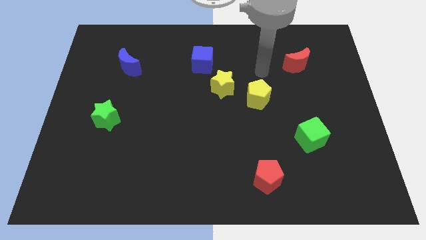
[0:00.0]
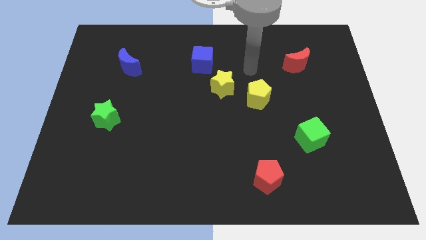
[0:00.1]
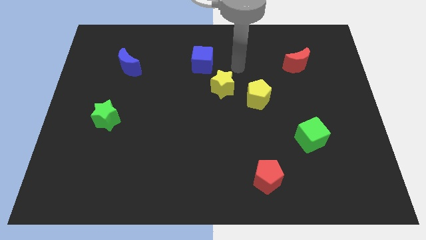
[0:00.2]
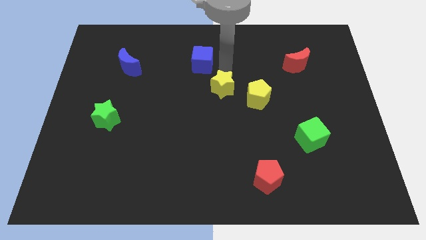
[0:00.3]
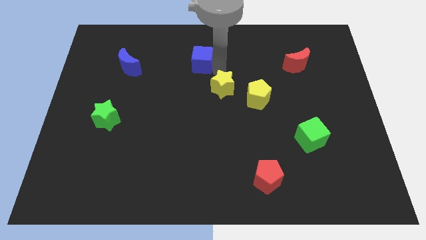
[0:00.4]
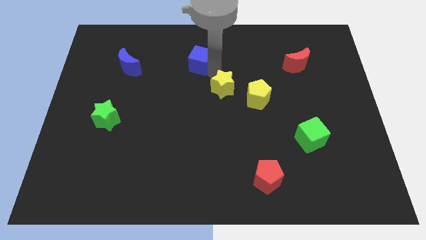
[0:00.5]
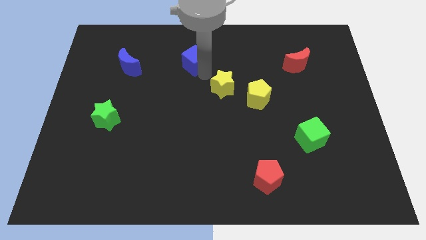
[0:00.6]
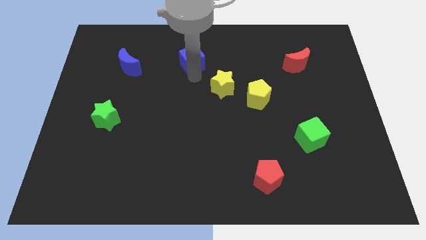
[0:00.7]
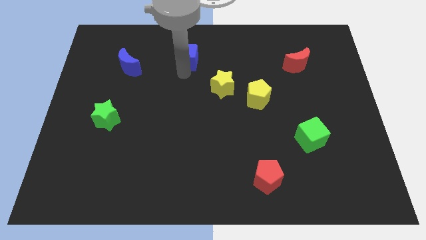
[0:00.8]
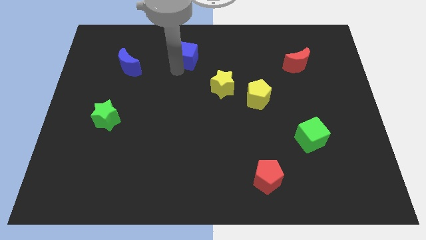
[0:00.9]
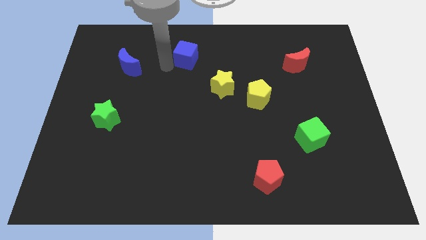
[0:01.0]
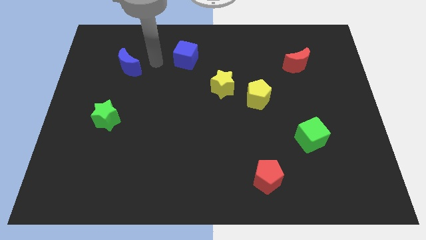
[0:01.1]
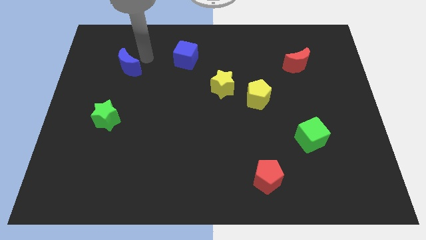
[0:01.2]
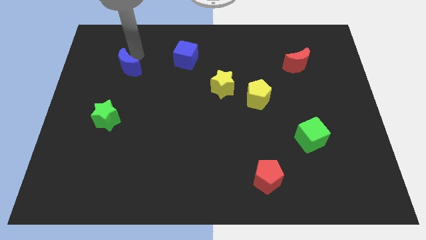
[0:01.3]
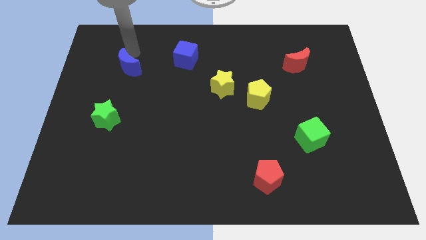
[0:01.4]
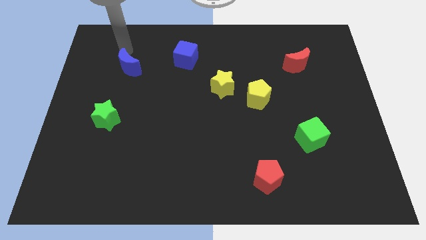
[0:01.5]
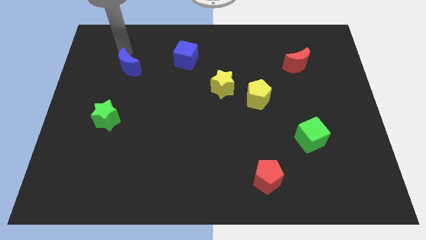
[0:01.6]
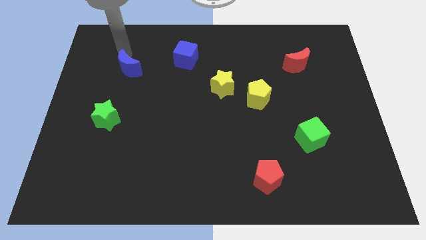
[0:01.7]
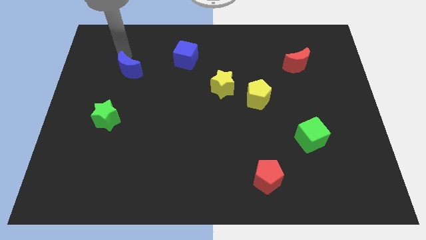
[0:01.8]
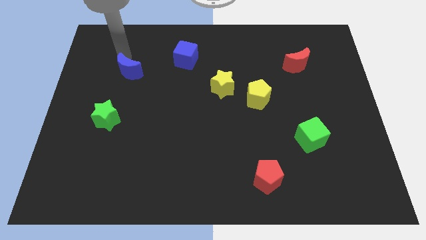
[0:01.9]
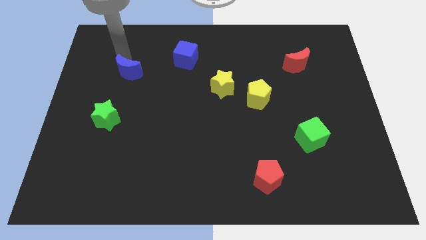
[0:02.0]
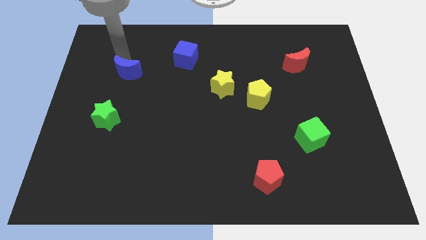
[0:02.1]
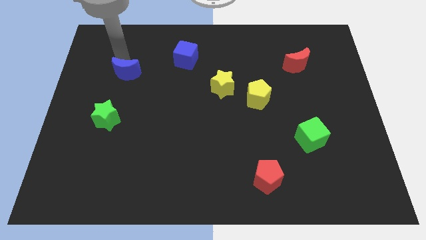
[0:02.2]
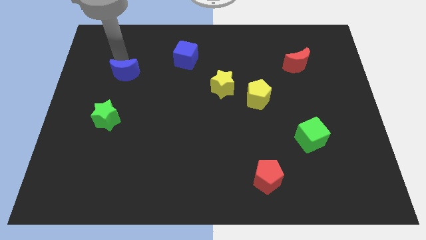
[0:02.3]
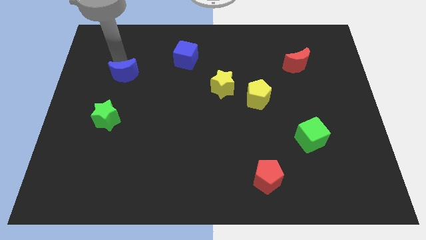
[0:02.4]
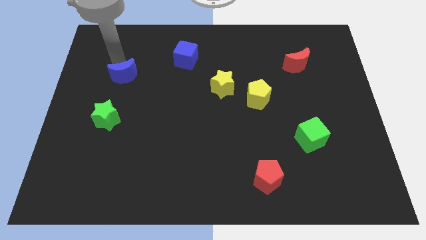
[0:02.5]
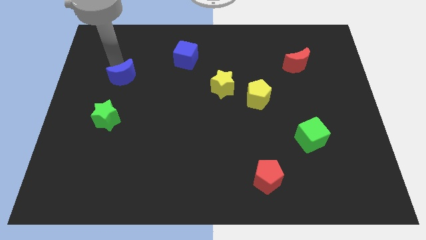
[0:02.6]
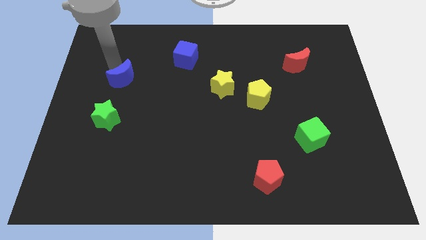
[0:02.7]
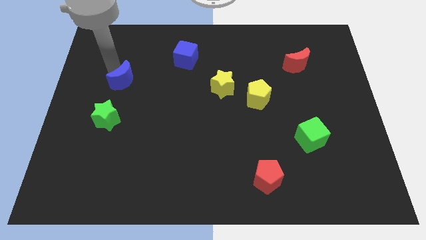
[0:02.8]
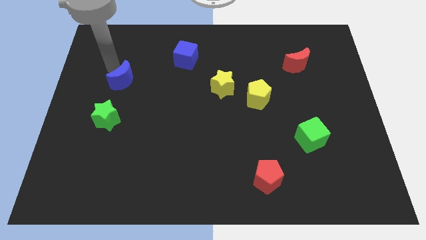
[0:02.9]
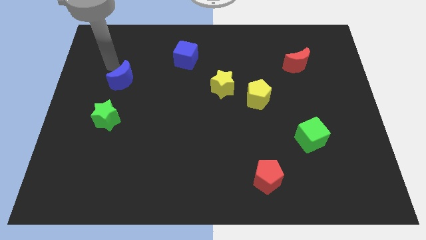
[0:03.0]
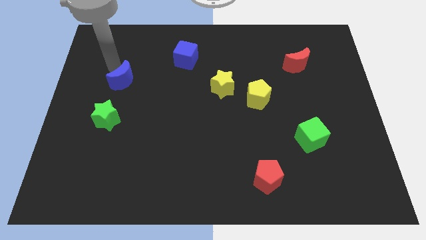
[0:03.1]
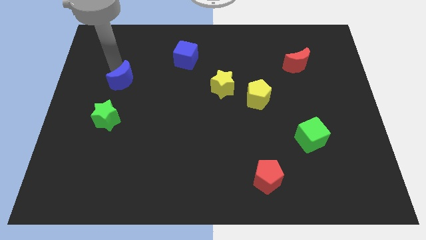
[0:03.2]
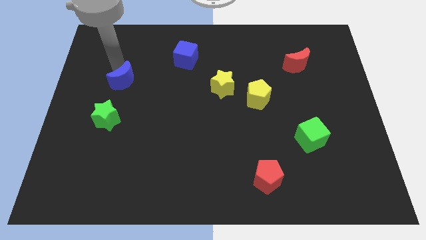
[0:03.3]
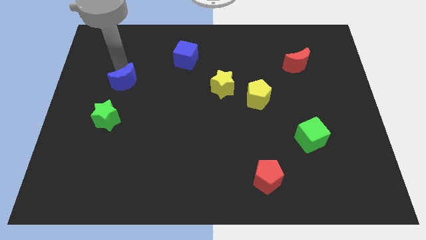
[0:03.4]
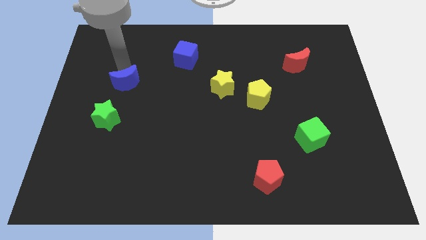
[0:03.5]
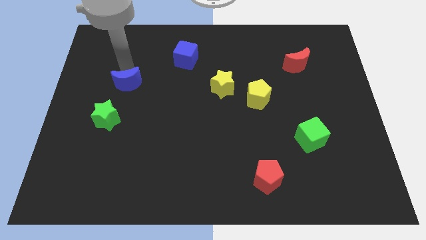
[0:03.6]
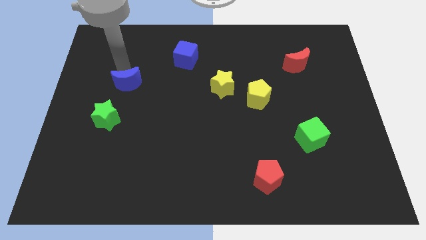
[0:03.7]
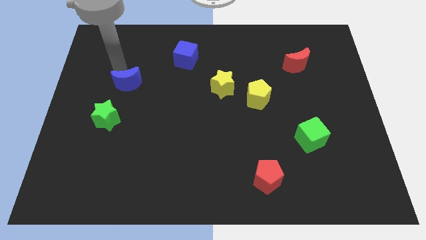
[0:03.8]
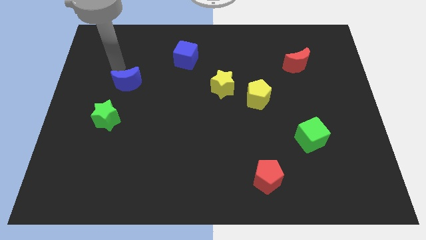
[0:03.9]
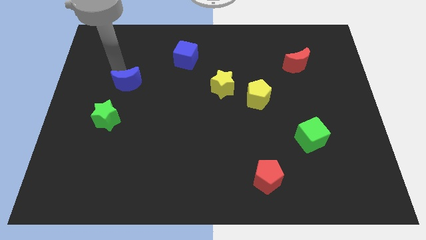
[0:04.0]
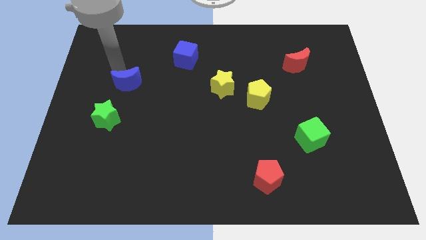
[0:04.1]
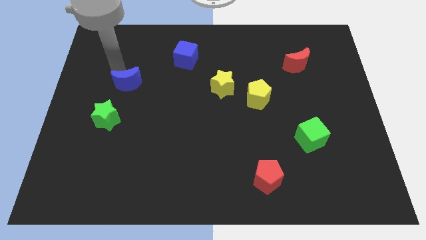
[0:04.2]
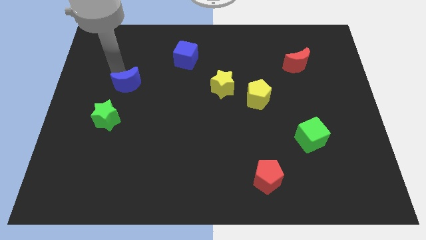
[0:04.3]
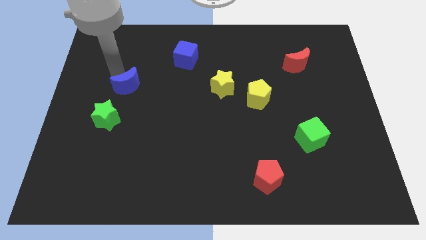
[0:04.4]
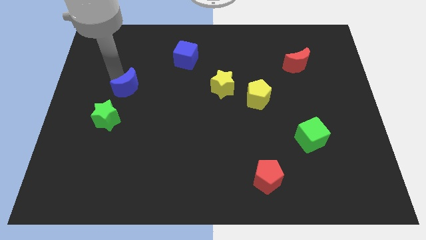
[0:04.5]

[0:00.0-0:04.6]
push the blue moon a little downwards

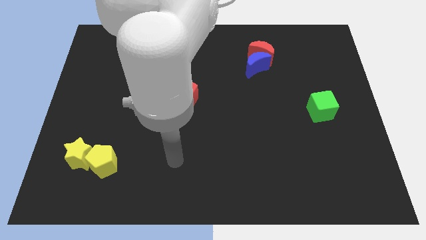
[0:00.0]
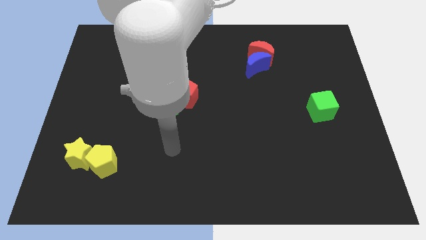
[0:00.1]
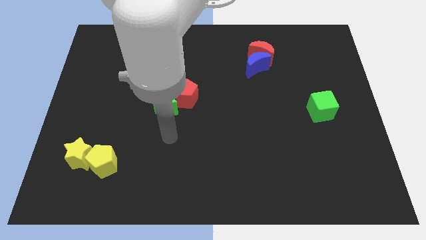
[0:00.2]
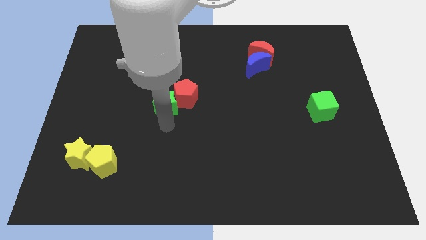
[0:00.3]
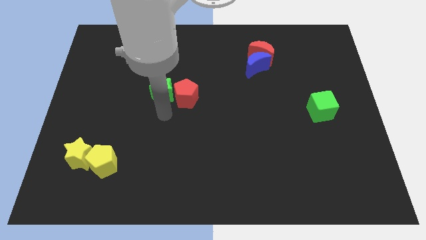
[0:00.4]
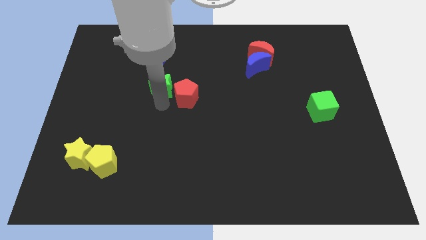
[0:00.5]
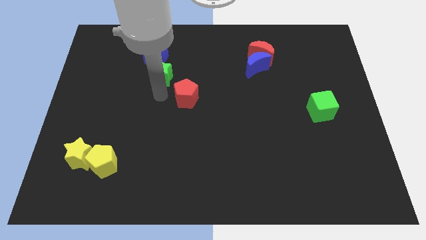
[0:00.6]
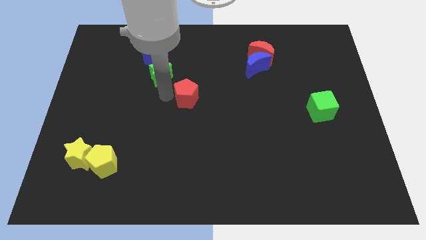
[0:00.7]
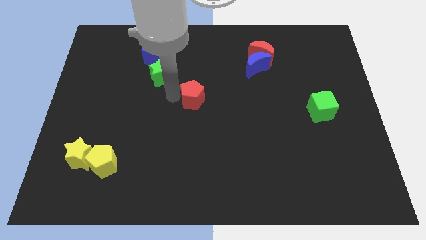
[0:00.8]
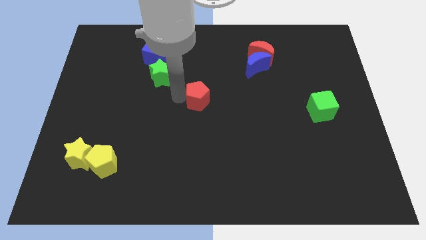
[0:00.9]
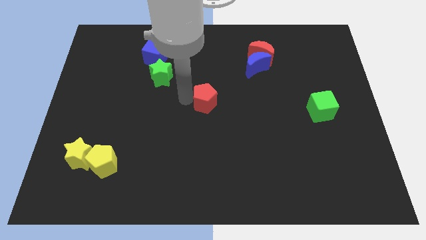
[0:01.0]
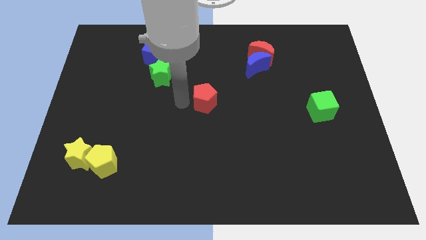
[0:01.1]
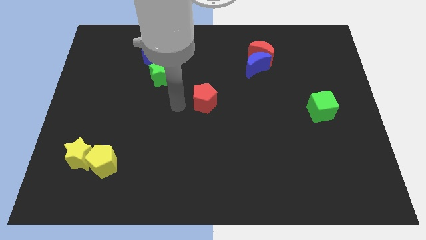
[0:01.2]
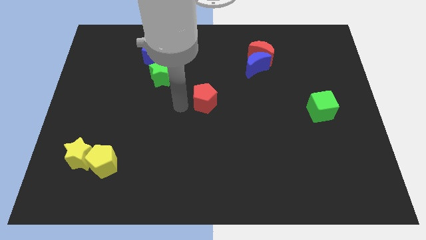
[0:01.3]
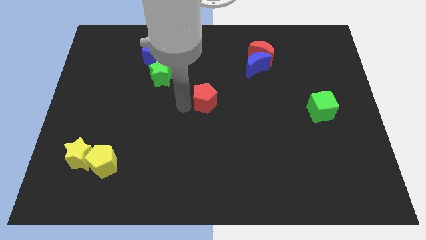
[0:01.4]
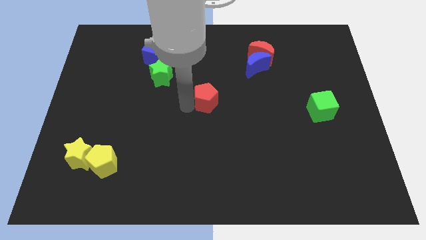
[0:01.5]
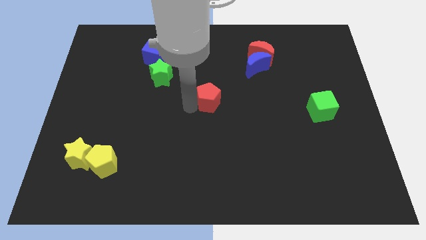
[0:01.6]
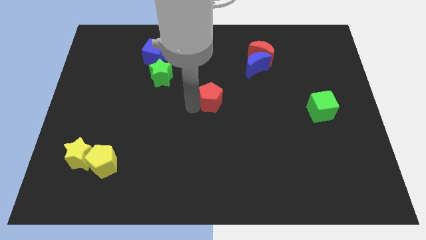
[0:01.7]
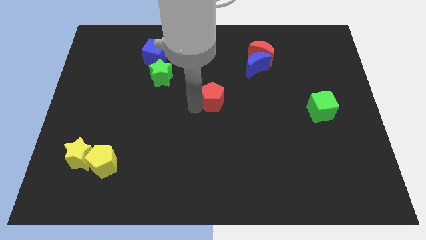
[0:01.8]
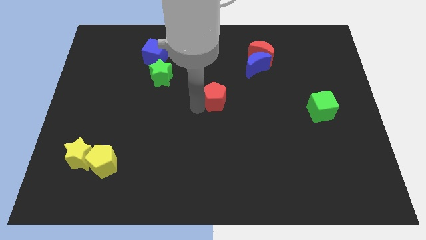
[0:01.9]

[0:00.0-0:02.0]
push the red pentagon slightly right

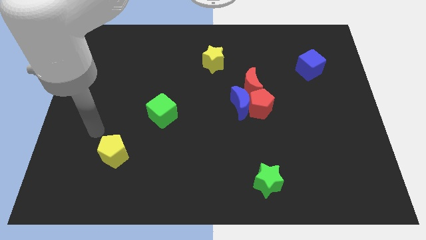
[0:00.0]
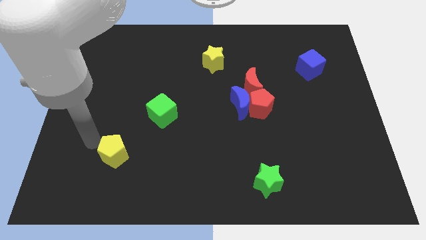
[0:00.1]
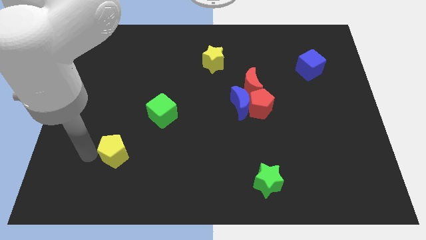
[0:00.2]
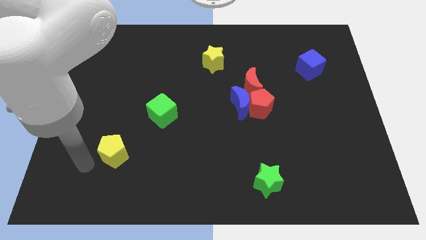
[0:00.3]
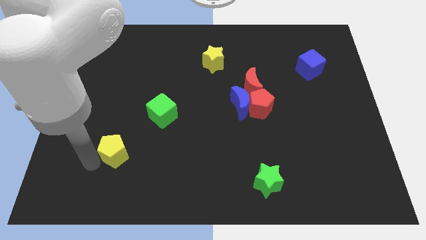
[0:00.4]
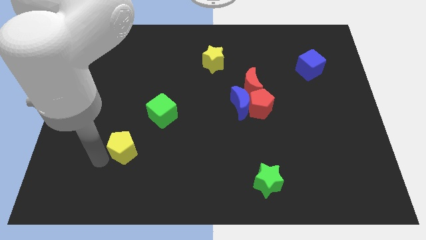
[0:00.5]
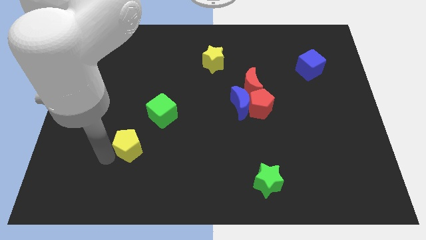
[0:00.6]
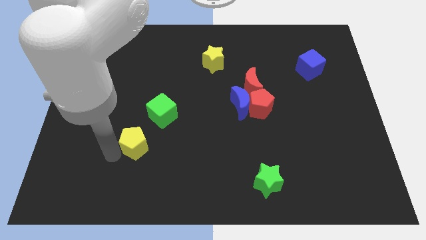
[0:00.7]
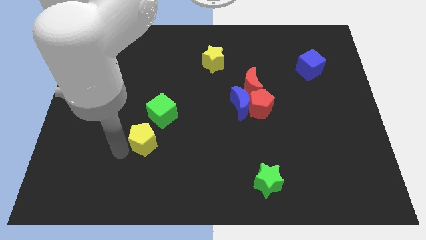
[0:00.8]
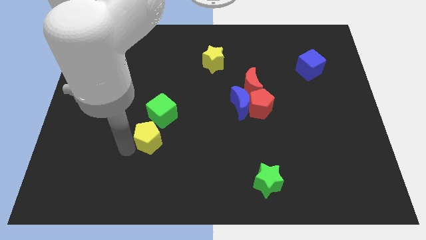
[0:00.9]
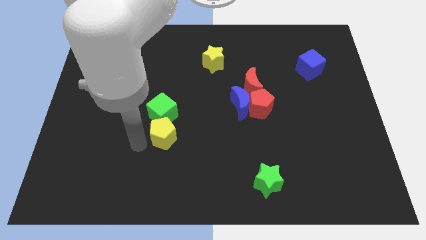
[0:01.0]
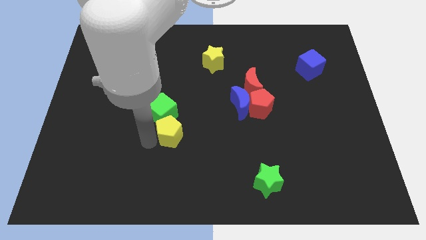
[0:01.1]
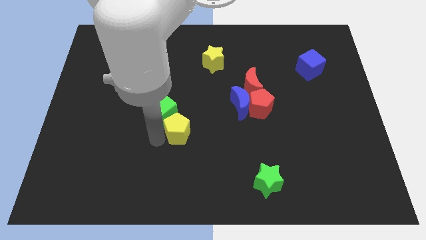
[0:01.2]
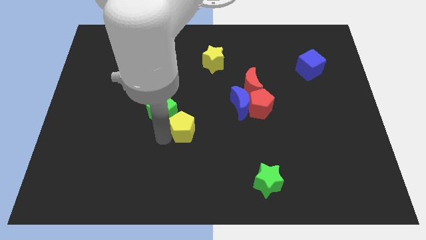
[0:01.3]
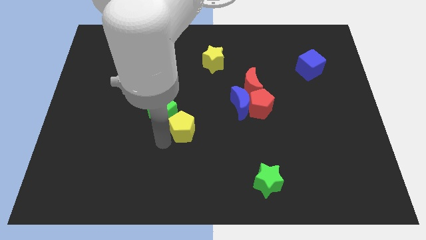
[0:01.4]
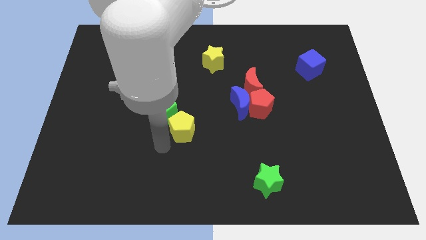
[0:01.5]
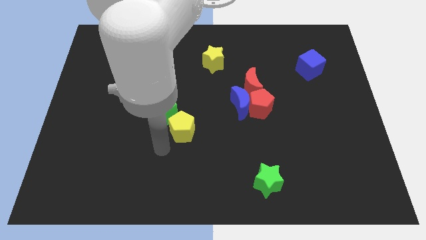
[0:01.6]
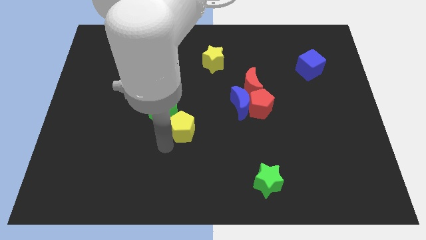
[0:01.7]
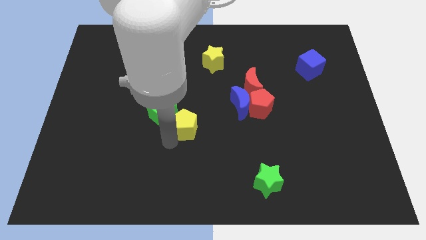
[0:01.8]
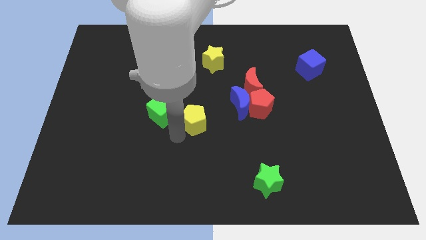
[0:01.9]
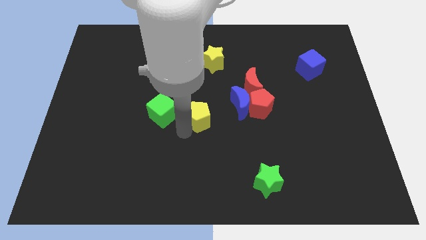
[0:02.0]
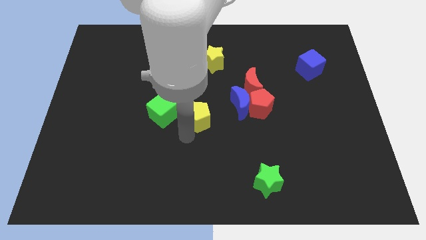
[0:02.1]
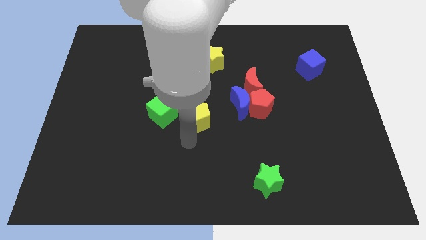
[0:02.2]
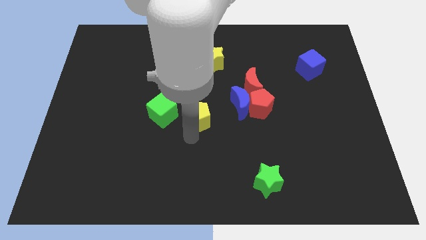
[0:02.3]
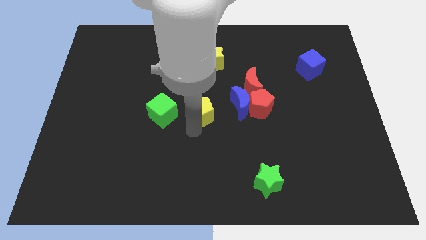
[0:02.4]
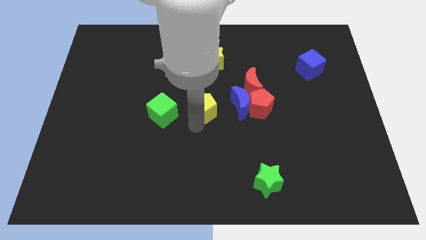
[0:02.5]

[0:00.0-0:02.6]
move the yellow pentagon diagonally up and to the right
